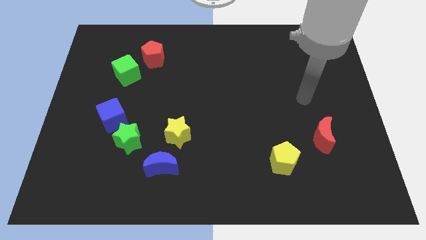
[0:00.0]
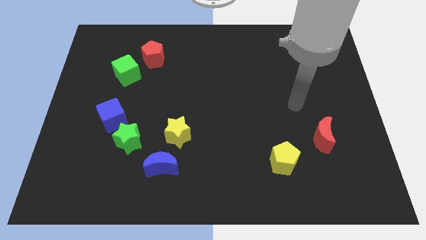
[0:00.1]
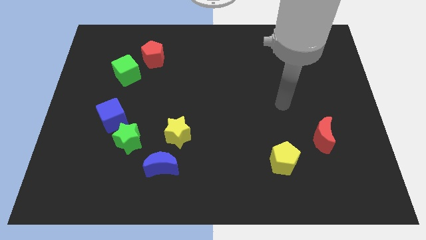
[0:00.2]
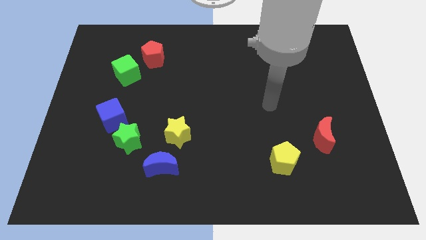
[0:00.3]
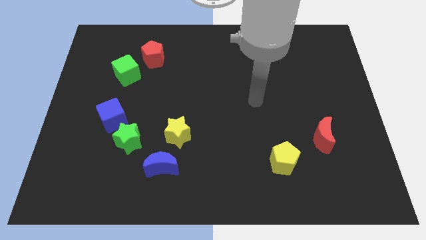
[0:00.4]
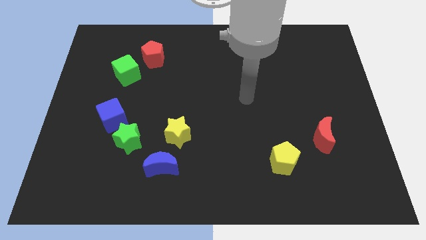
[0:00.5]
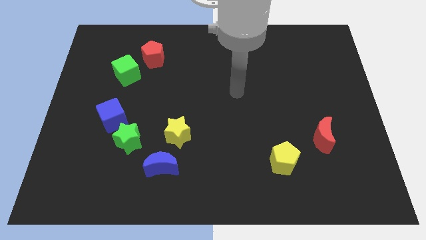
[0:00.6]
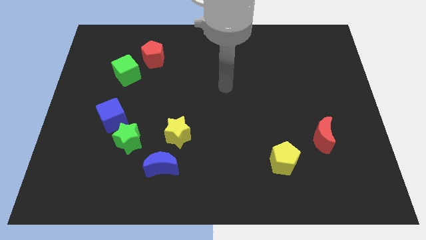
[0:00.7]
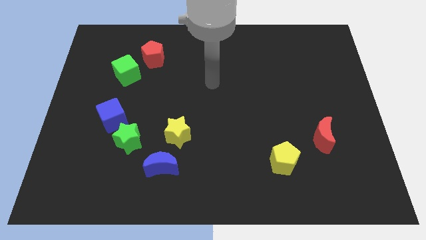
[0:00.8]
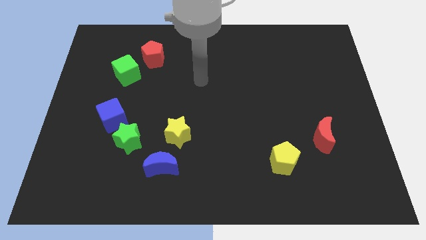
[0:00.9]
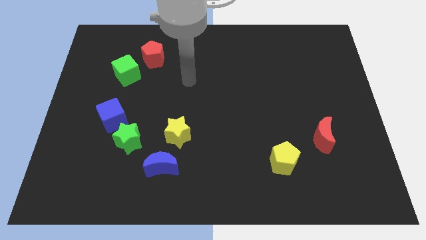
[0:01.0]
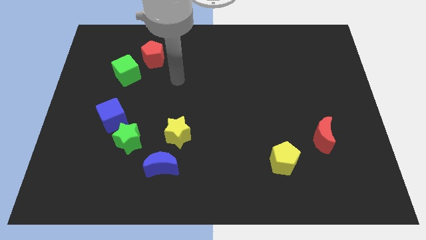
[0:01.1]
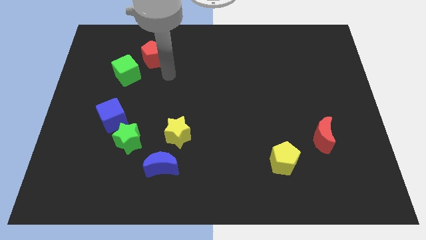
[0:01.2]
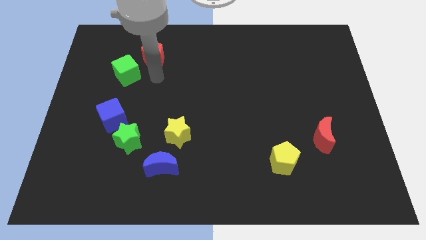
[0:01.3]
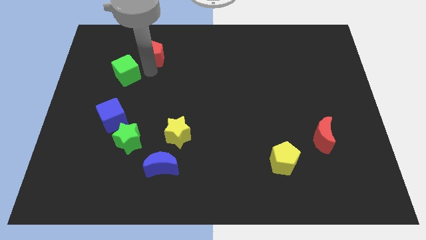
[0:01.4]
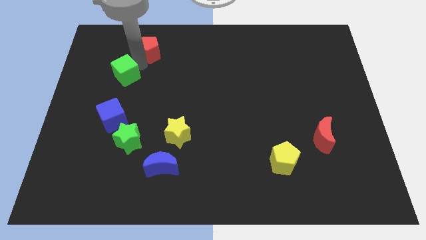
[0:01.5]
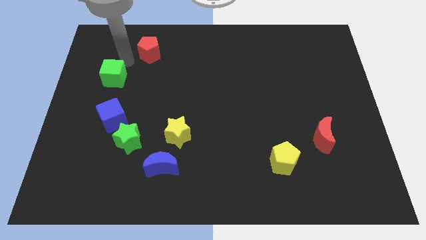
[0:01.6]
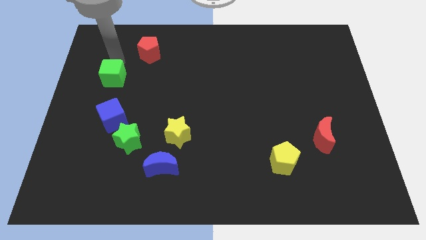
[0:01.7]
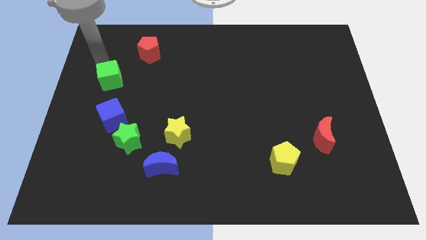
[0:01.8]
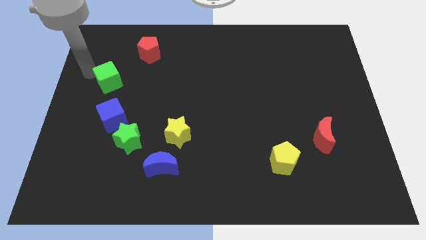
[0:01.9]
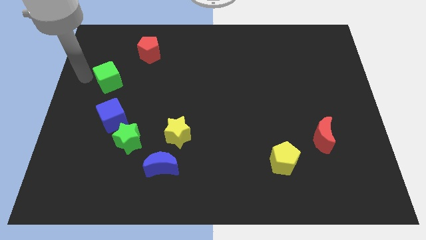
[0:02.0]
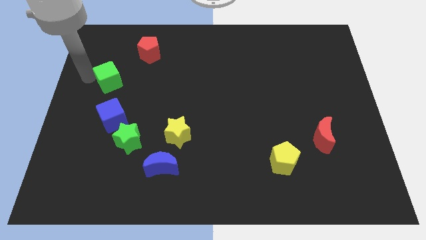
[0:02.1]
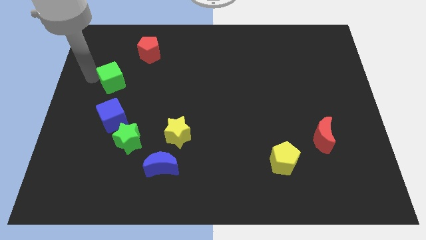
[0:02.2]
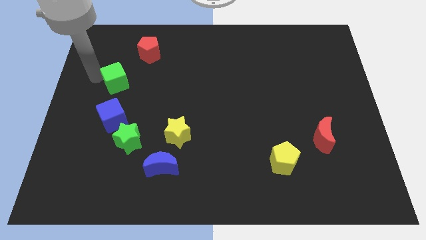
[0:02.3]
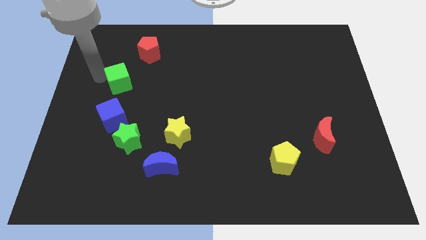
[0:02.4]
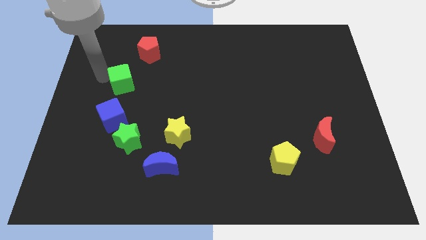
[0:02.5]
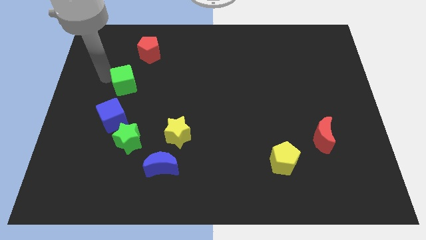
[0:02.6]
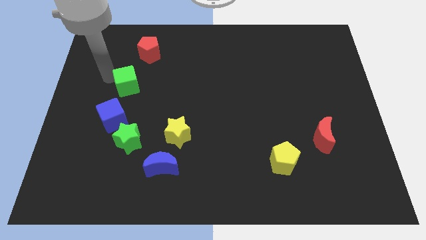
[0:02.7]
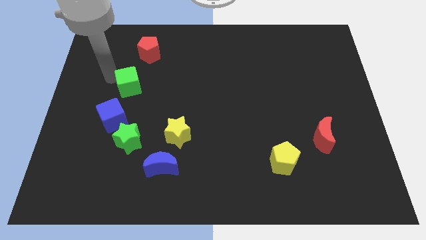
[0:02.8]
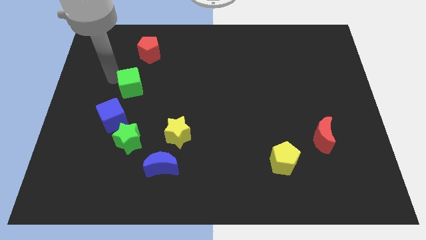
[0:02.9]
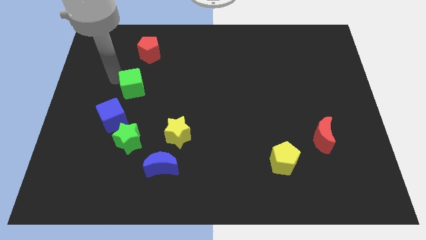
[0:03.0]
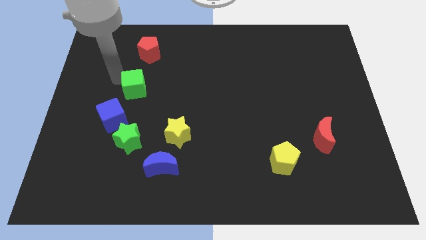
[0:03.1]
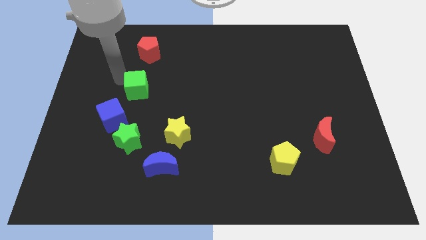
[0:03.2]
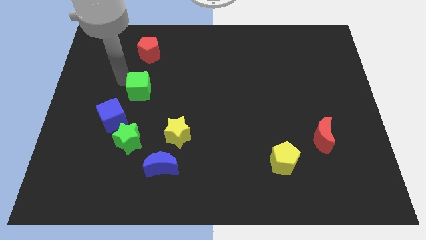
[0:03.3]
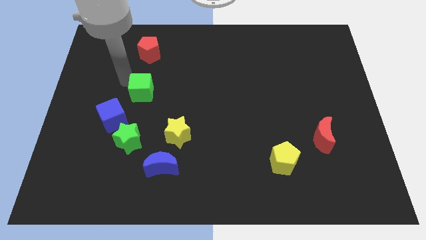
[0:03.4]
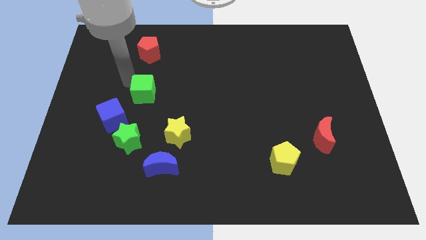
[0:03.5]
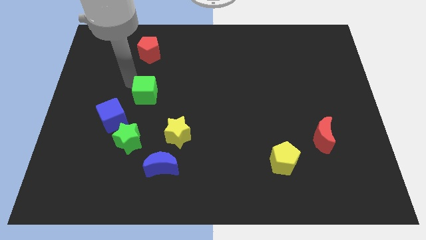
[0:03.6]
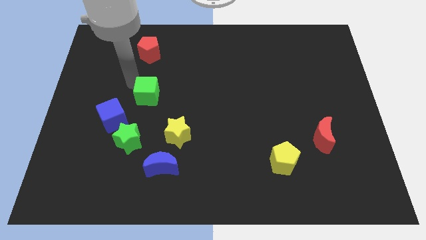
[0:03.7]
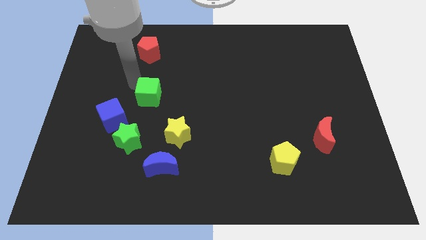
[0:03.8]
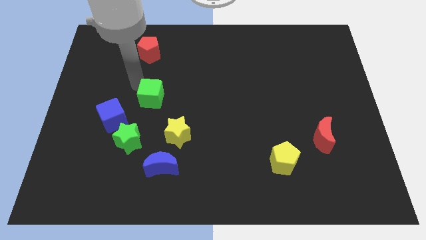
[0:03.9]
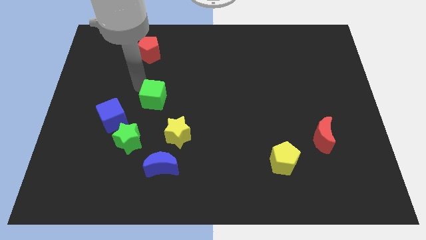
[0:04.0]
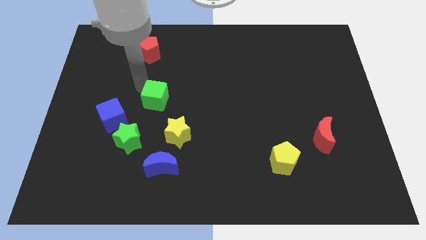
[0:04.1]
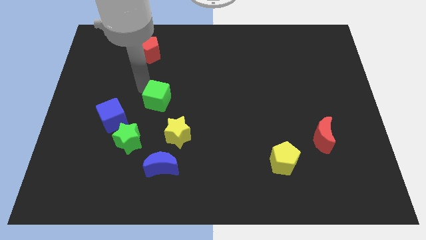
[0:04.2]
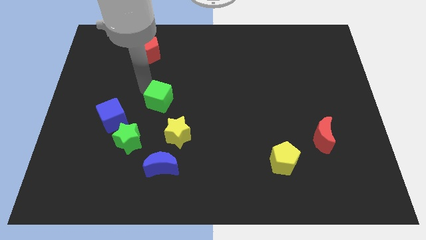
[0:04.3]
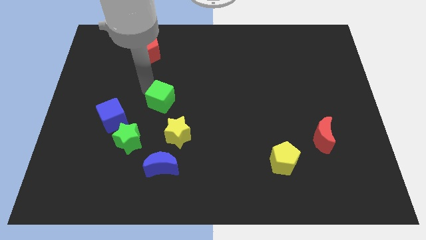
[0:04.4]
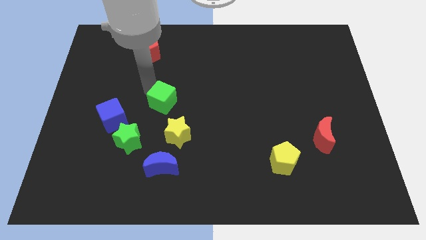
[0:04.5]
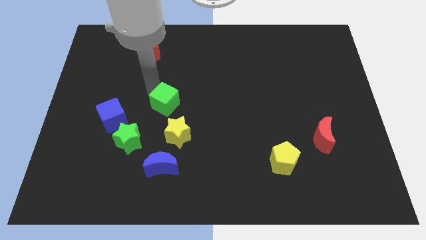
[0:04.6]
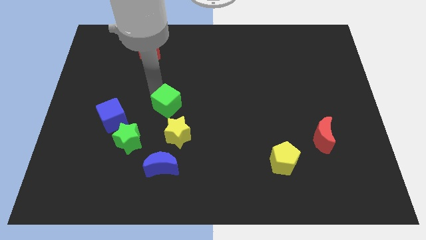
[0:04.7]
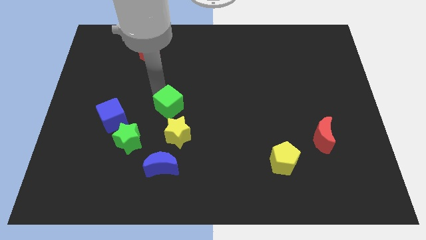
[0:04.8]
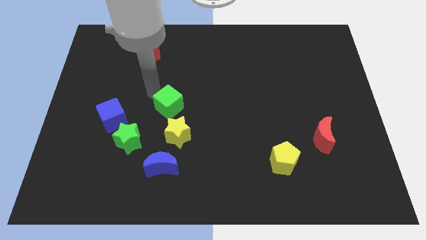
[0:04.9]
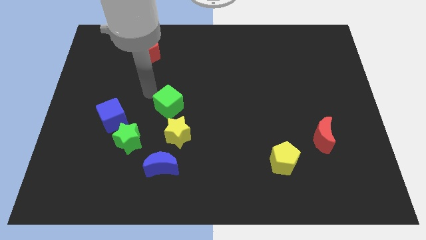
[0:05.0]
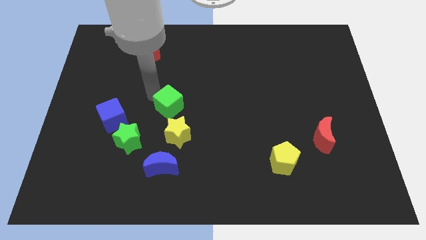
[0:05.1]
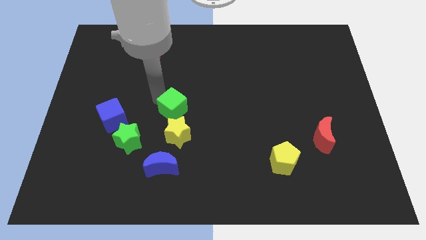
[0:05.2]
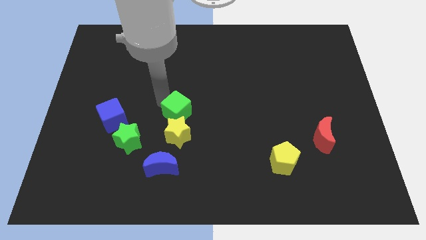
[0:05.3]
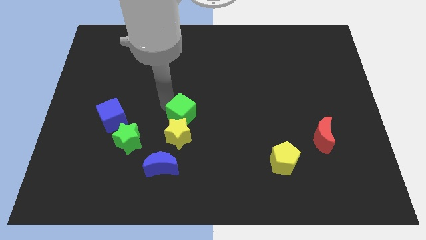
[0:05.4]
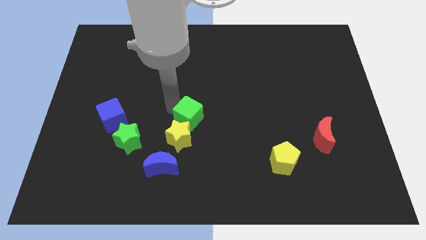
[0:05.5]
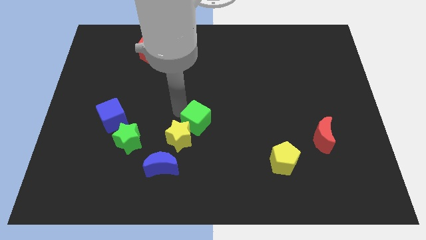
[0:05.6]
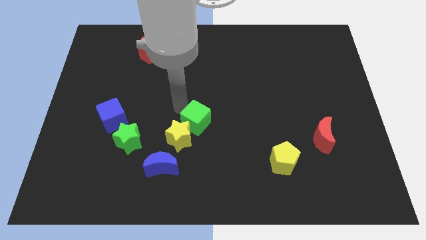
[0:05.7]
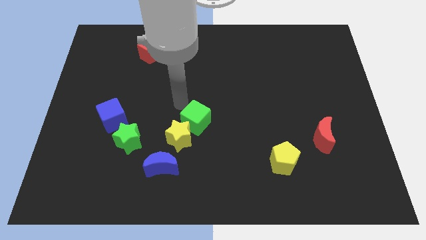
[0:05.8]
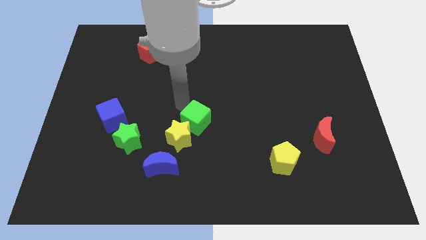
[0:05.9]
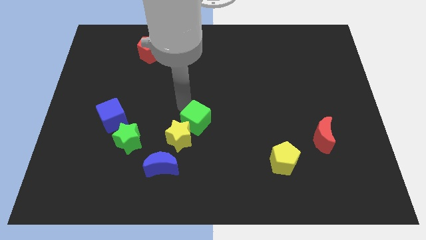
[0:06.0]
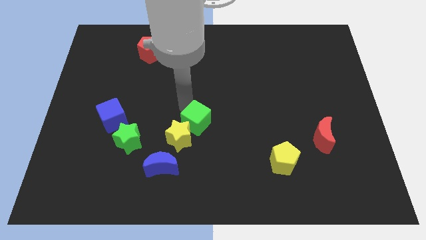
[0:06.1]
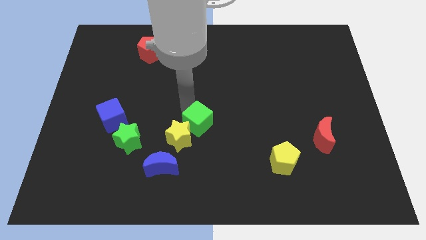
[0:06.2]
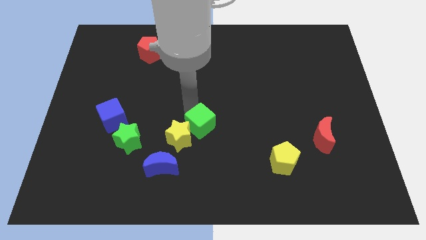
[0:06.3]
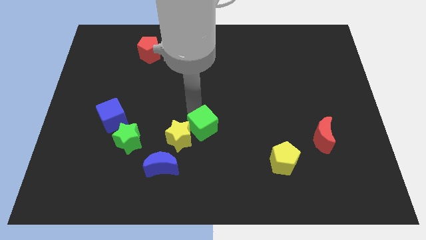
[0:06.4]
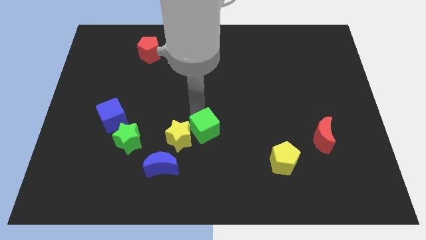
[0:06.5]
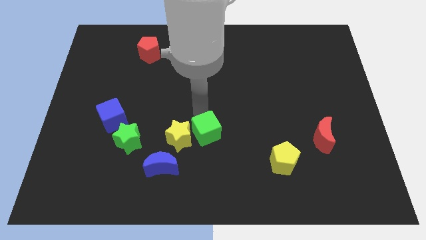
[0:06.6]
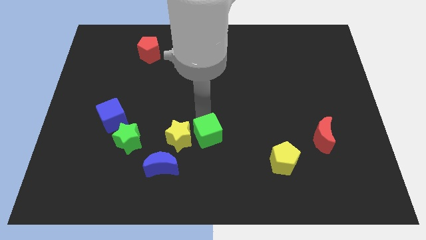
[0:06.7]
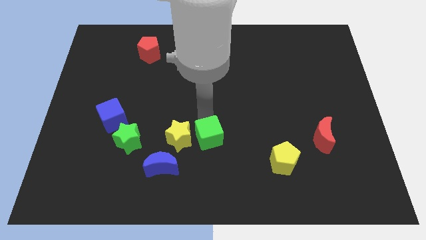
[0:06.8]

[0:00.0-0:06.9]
put the green cube diagonally down and to the right of the yellow star
